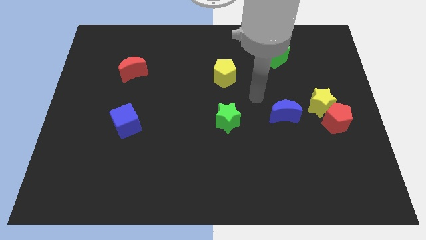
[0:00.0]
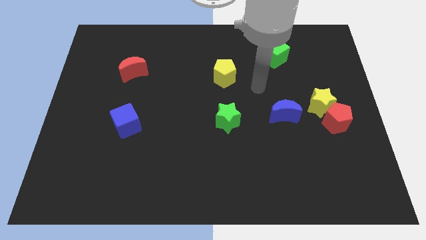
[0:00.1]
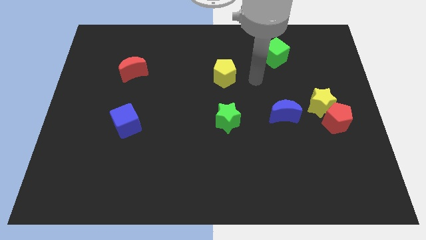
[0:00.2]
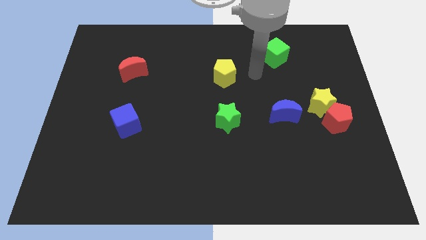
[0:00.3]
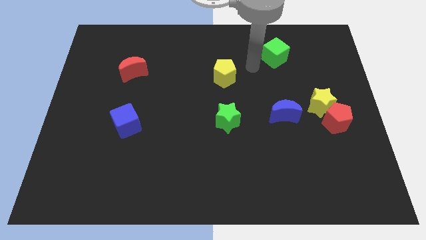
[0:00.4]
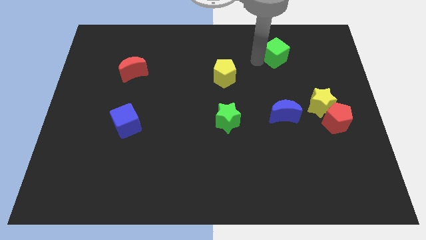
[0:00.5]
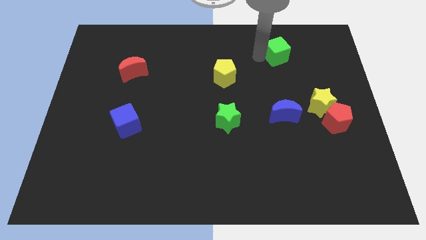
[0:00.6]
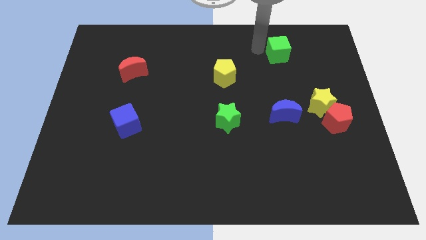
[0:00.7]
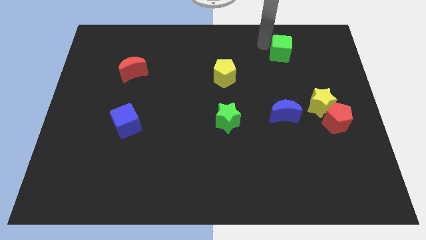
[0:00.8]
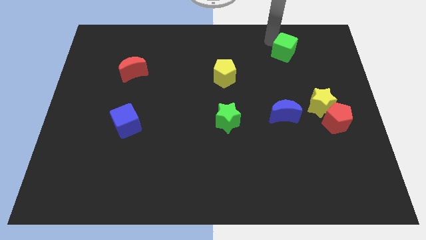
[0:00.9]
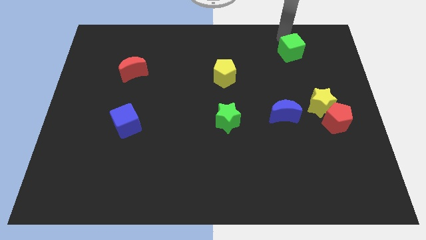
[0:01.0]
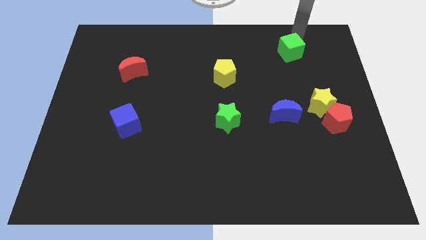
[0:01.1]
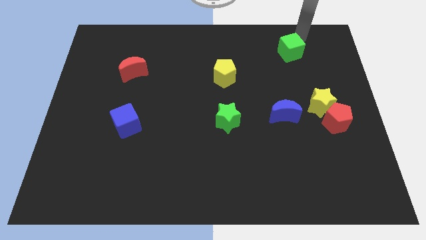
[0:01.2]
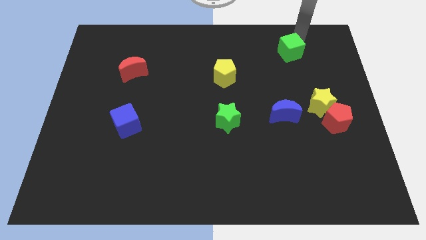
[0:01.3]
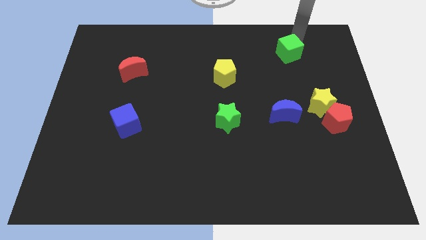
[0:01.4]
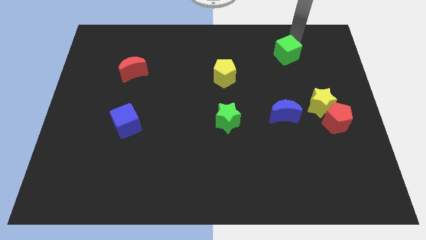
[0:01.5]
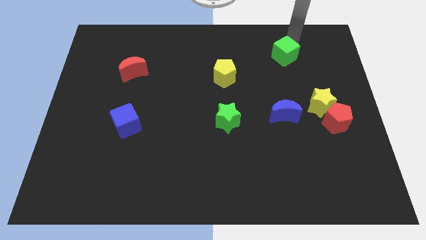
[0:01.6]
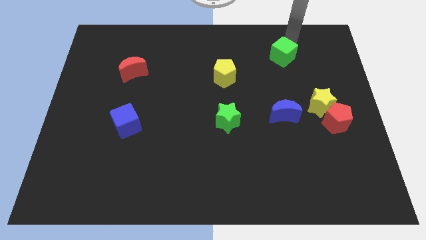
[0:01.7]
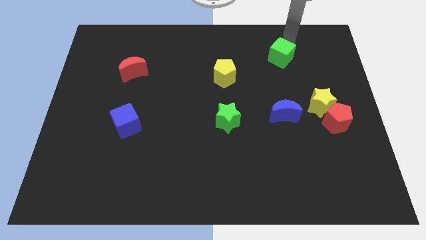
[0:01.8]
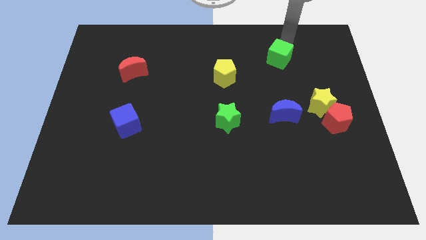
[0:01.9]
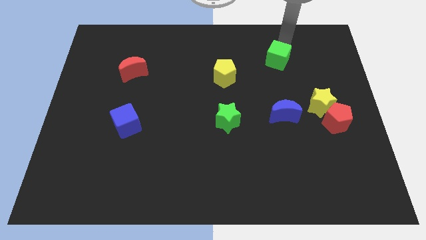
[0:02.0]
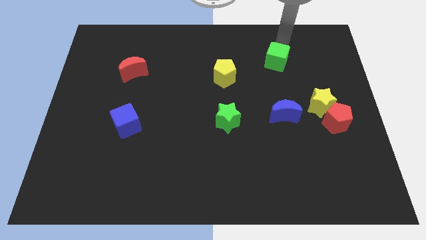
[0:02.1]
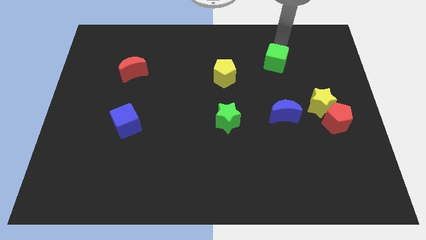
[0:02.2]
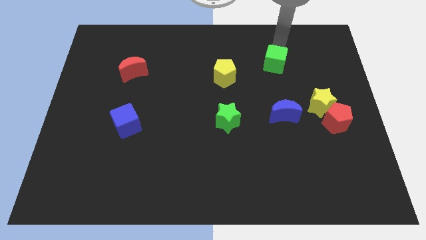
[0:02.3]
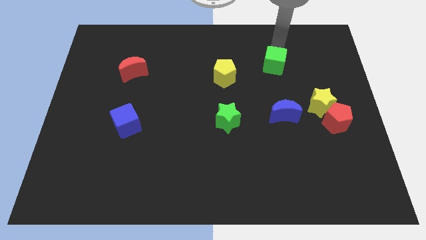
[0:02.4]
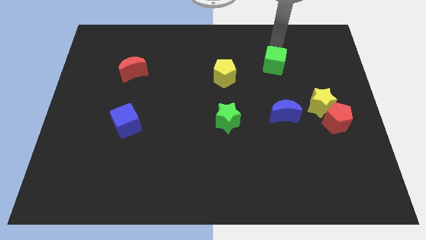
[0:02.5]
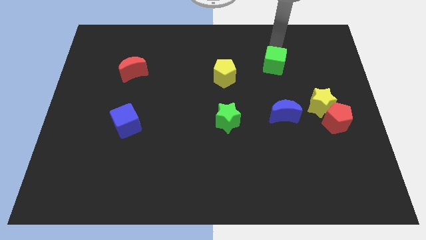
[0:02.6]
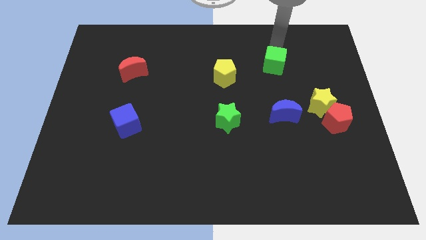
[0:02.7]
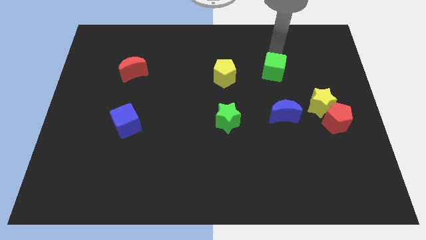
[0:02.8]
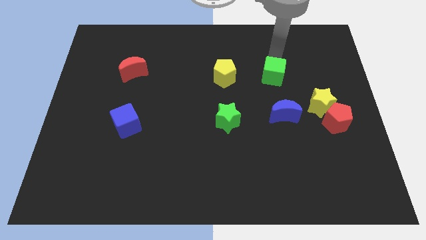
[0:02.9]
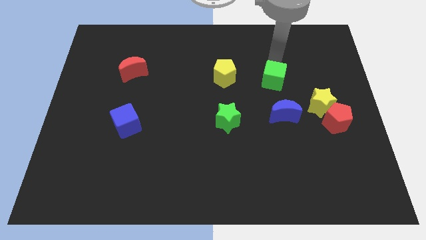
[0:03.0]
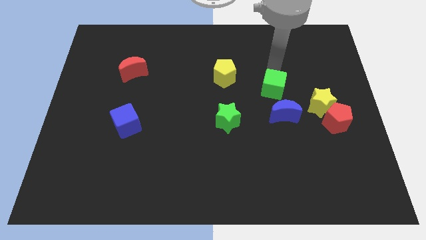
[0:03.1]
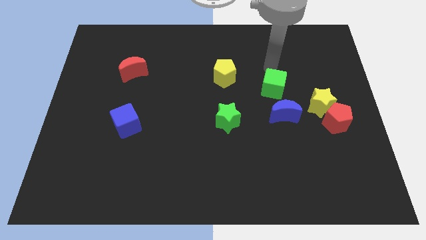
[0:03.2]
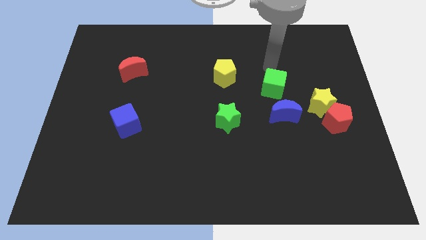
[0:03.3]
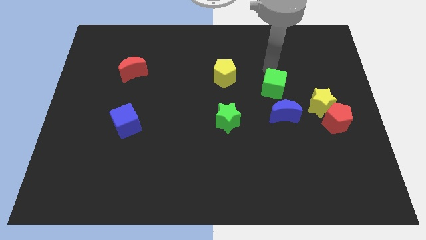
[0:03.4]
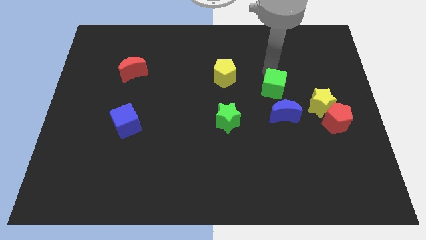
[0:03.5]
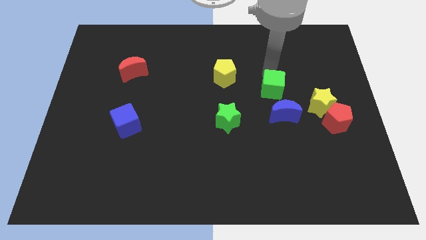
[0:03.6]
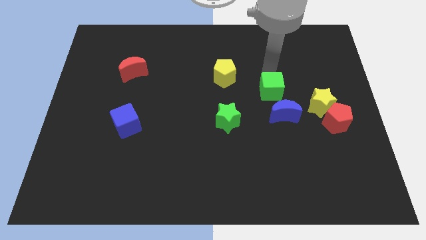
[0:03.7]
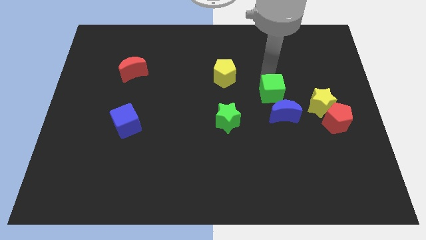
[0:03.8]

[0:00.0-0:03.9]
push the green cube just left of the yellow star

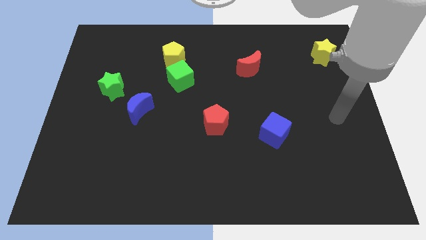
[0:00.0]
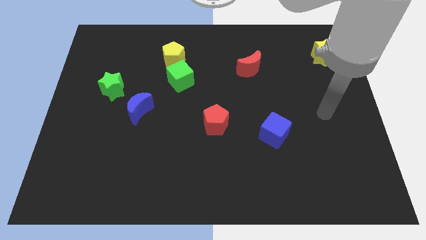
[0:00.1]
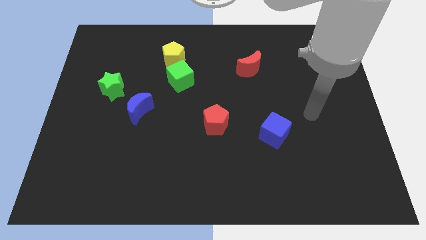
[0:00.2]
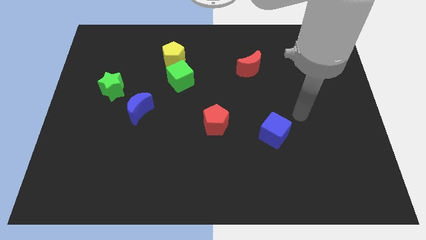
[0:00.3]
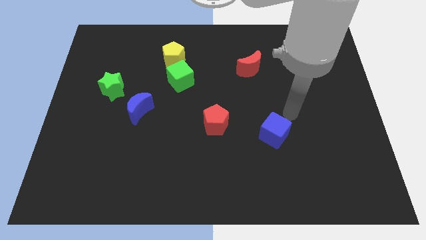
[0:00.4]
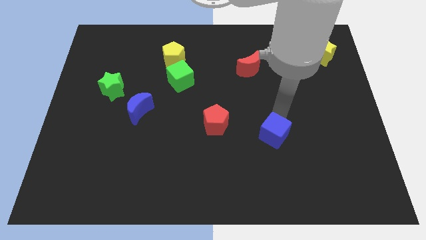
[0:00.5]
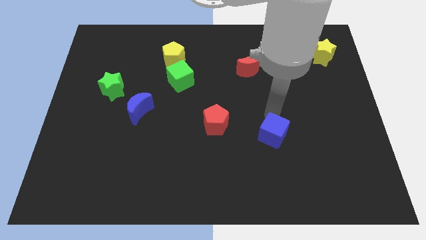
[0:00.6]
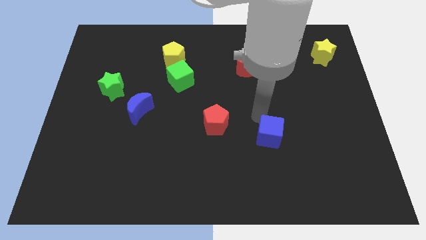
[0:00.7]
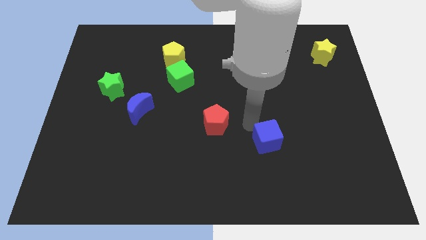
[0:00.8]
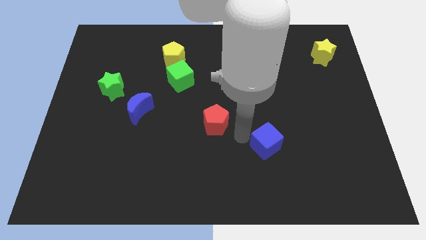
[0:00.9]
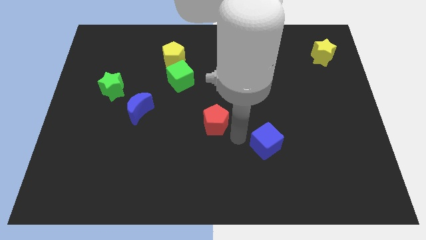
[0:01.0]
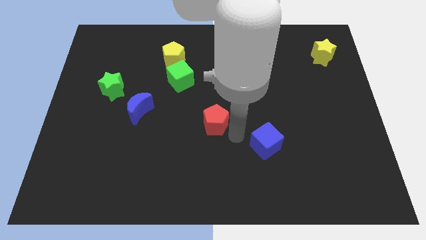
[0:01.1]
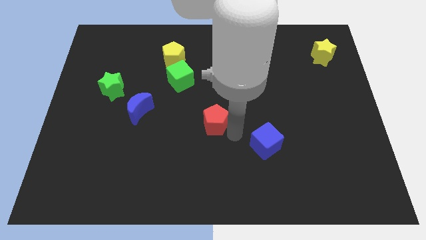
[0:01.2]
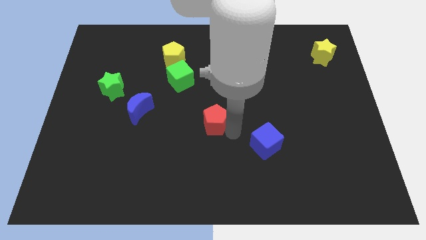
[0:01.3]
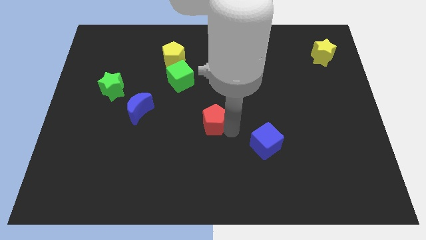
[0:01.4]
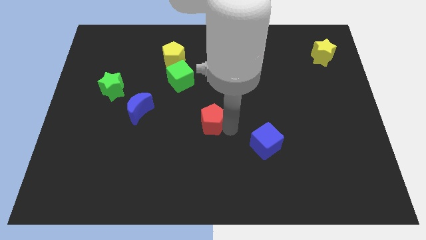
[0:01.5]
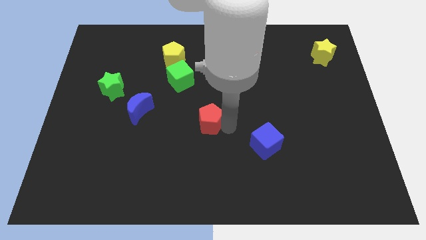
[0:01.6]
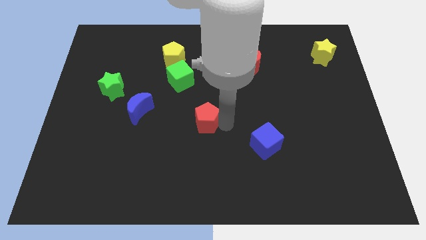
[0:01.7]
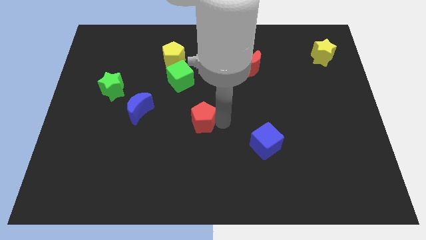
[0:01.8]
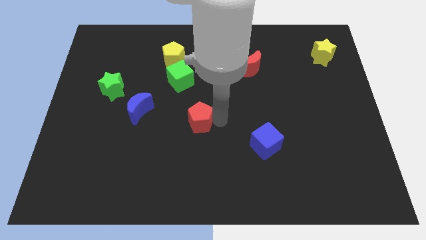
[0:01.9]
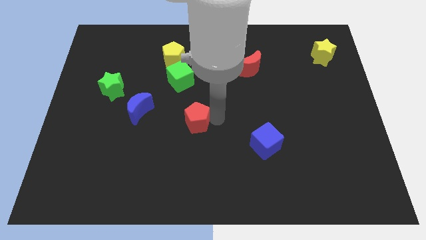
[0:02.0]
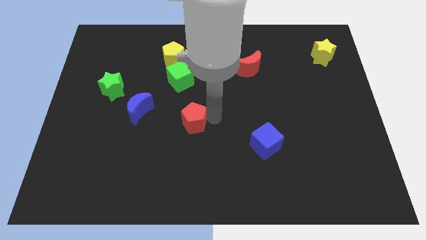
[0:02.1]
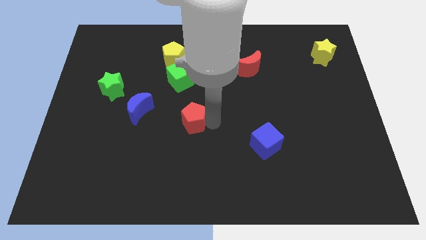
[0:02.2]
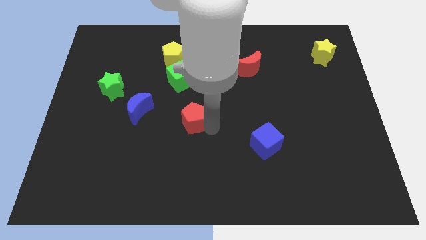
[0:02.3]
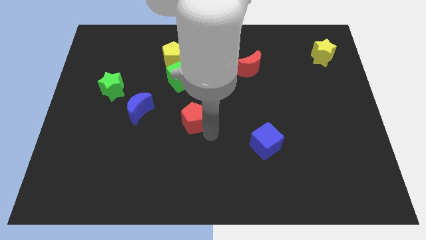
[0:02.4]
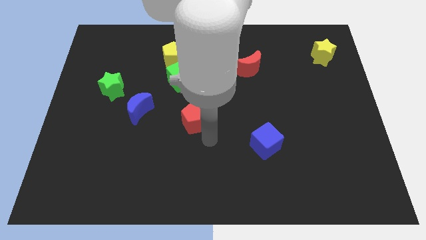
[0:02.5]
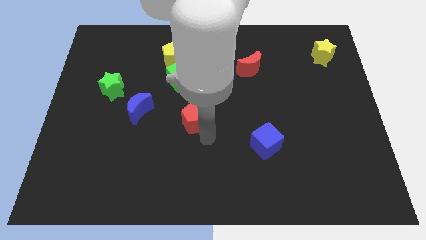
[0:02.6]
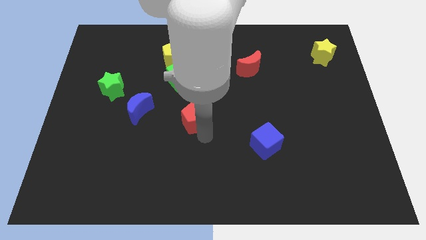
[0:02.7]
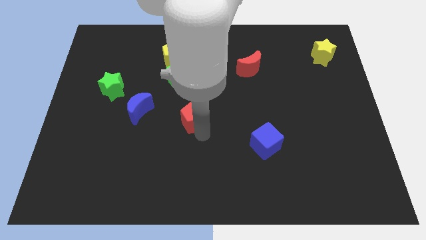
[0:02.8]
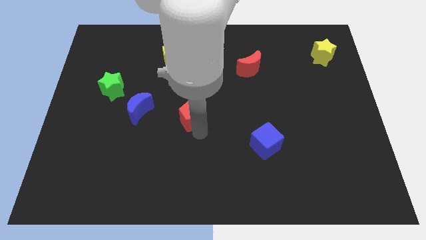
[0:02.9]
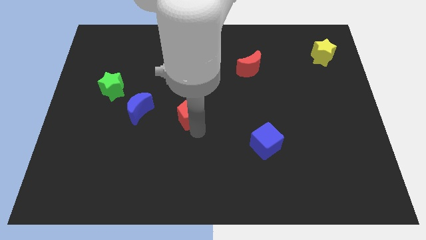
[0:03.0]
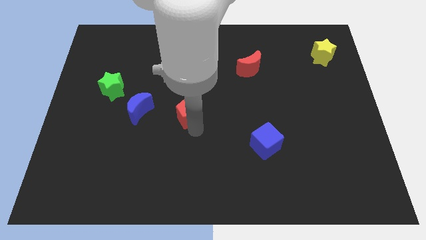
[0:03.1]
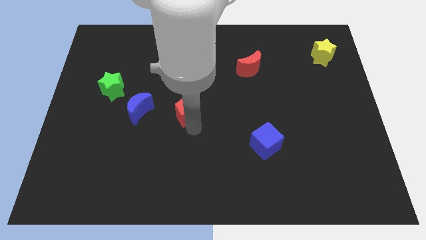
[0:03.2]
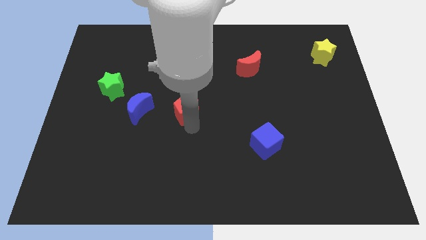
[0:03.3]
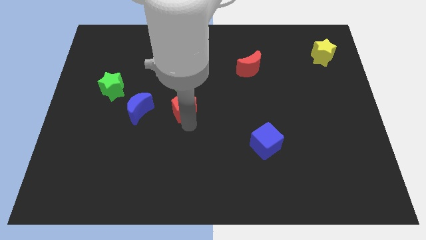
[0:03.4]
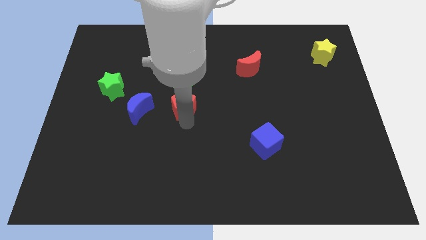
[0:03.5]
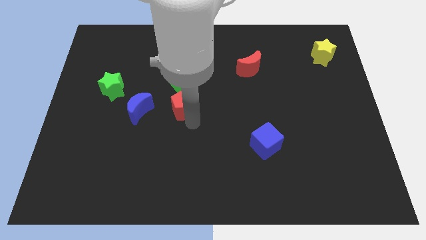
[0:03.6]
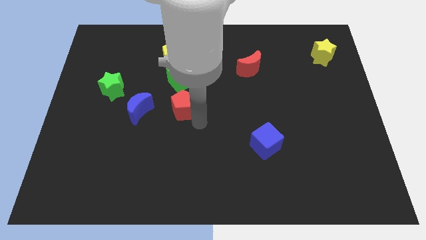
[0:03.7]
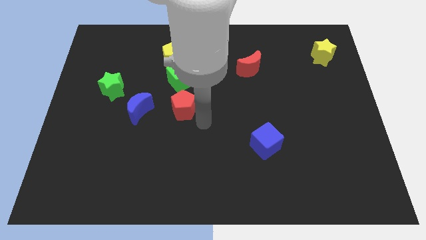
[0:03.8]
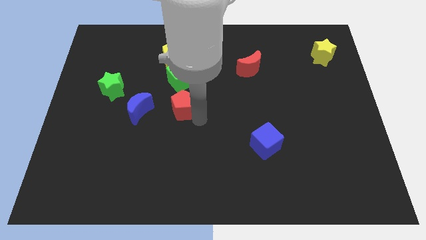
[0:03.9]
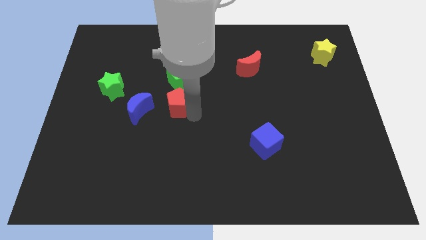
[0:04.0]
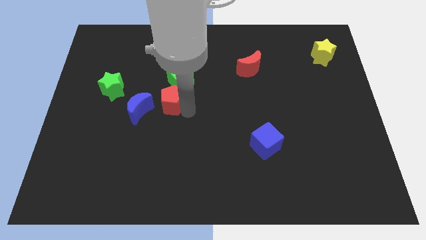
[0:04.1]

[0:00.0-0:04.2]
slide the red pentagon diagonally up and to the right of the blue moon
